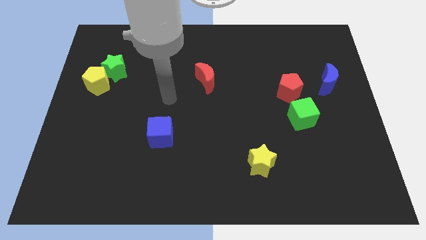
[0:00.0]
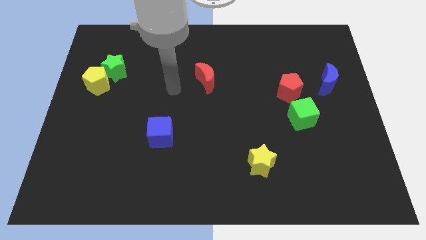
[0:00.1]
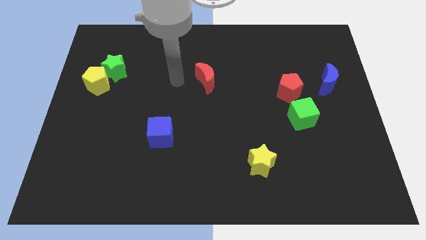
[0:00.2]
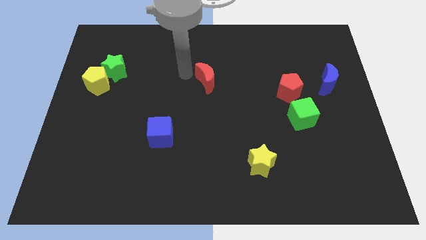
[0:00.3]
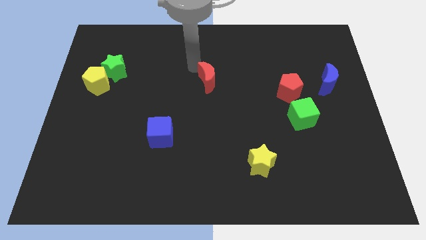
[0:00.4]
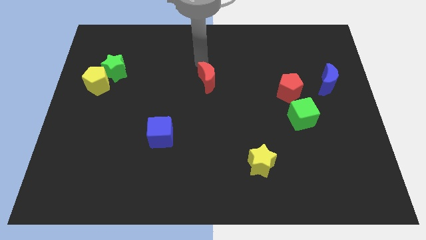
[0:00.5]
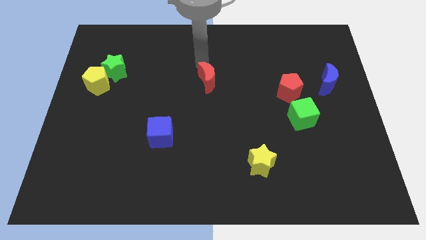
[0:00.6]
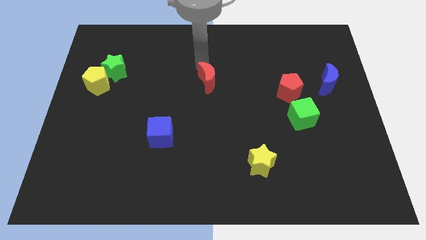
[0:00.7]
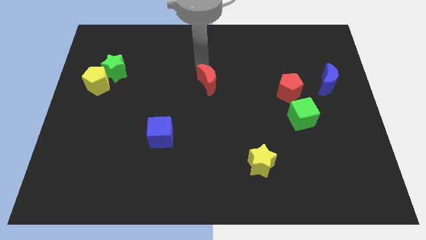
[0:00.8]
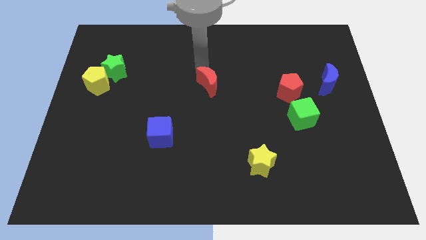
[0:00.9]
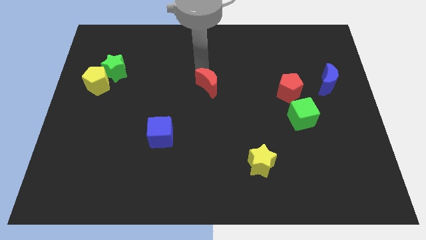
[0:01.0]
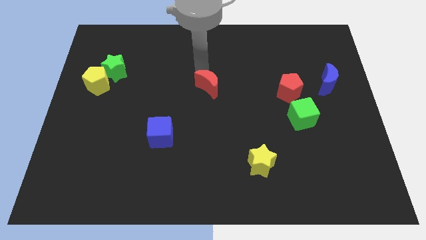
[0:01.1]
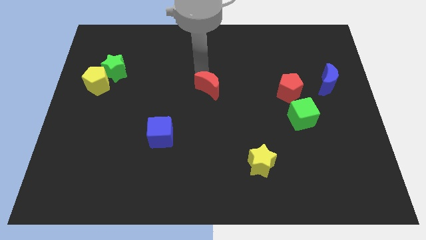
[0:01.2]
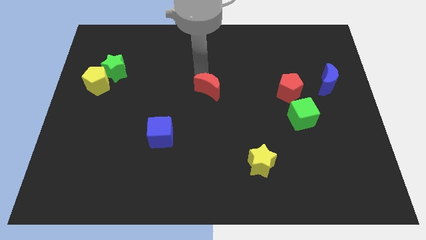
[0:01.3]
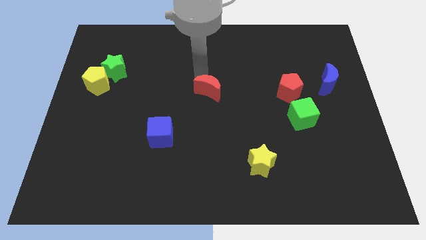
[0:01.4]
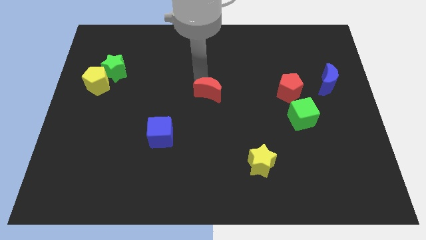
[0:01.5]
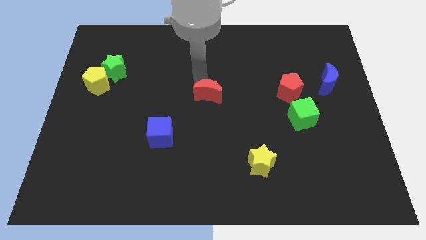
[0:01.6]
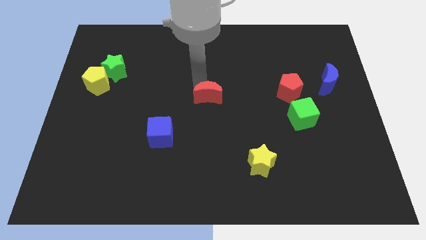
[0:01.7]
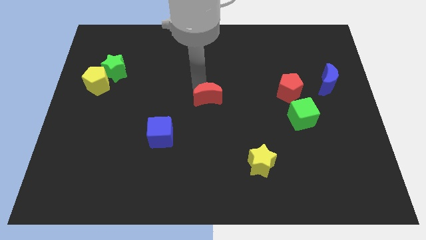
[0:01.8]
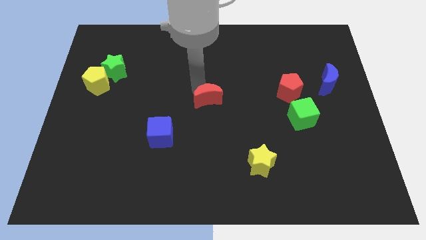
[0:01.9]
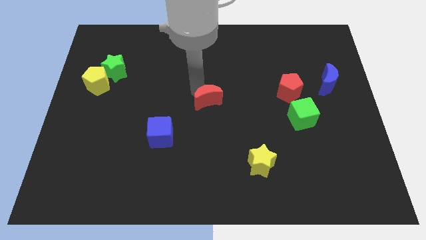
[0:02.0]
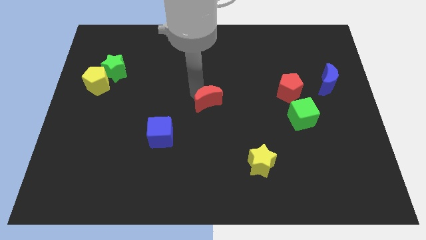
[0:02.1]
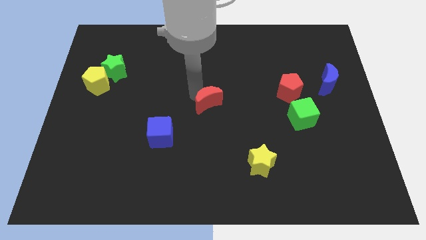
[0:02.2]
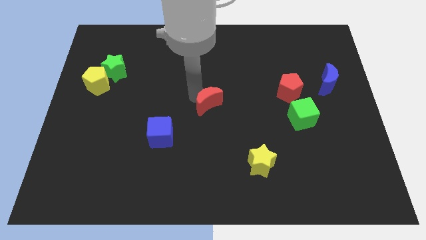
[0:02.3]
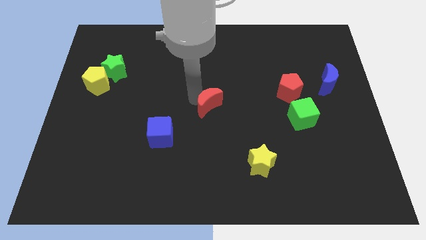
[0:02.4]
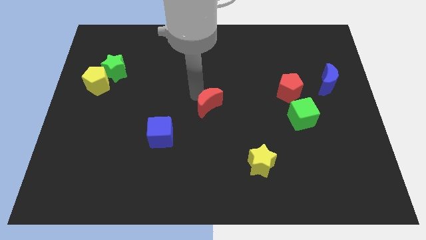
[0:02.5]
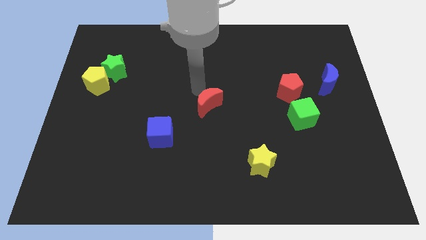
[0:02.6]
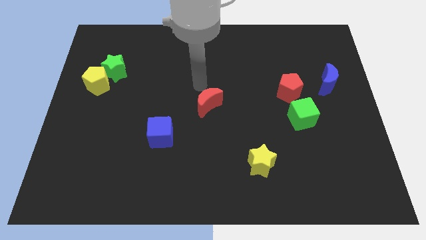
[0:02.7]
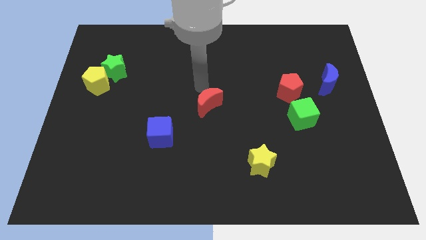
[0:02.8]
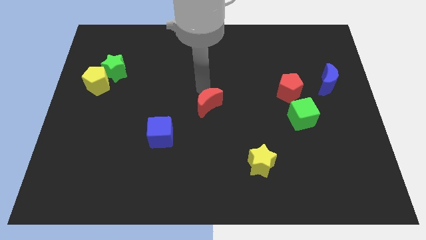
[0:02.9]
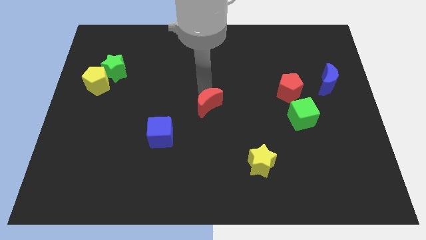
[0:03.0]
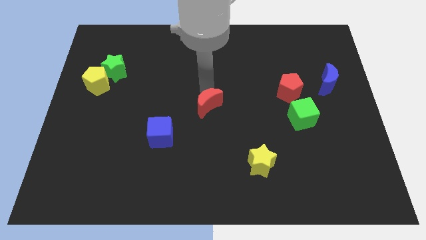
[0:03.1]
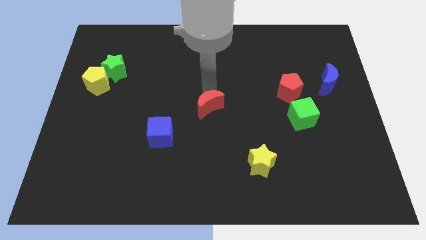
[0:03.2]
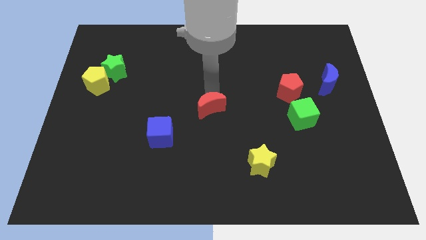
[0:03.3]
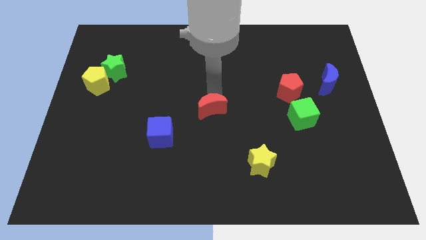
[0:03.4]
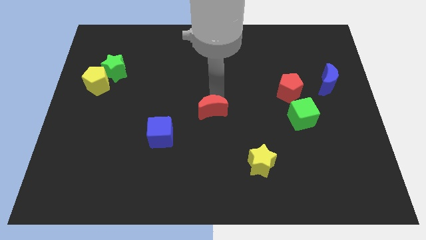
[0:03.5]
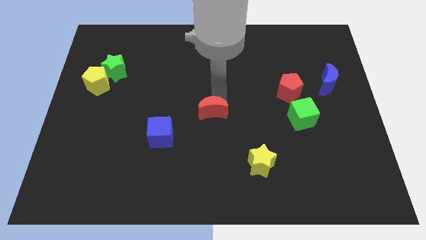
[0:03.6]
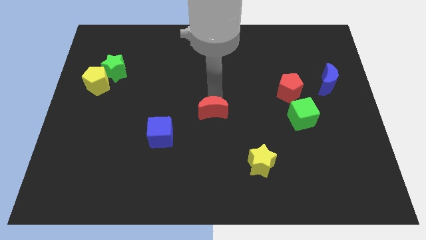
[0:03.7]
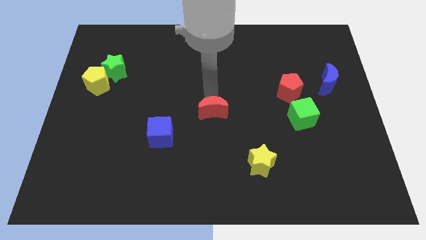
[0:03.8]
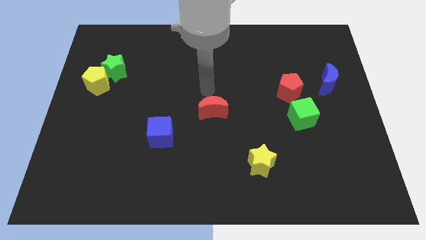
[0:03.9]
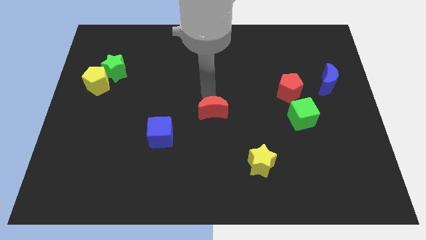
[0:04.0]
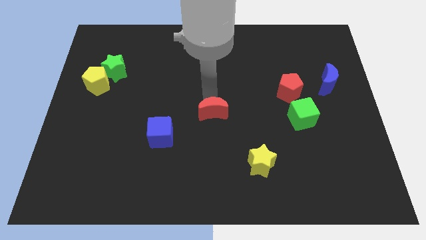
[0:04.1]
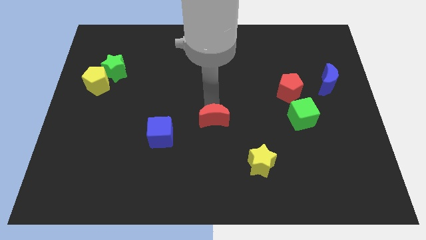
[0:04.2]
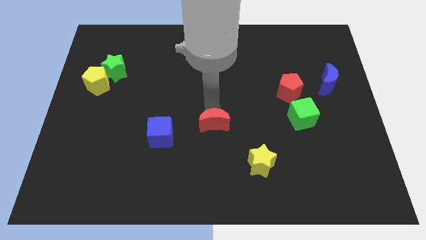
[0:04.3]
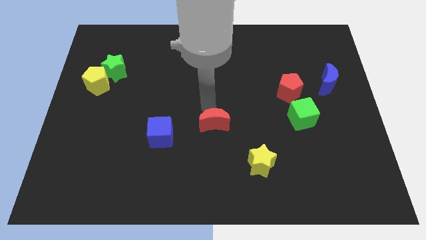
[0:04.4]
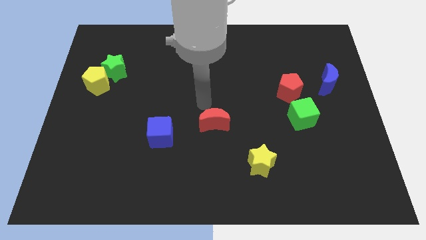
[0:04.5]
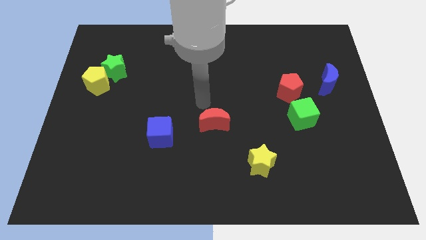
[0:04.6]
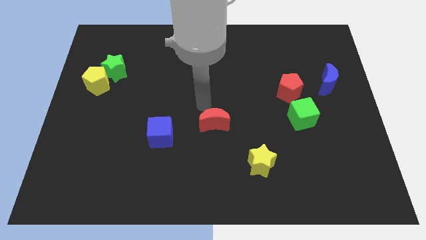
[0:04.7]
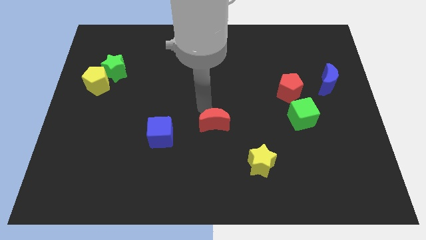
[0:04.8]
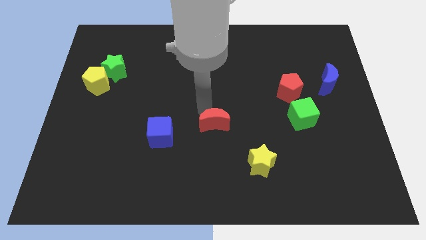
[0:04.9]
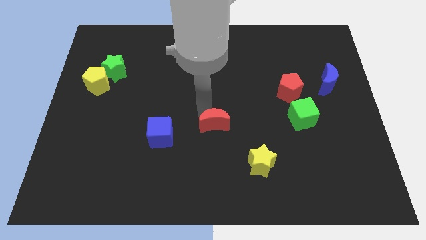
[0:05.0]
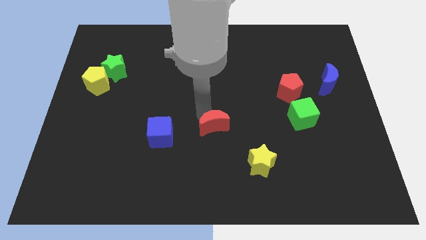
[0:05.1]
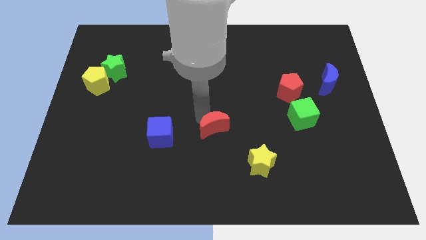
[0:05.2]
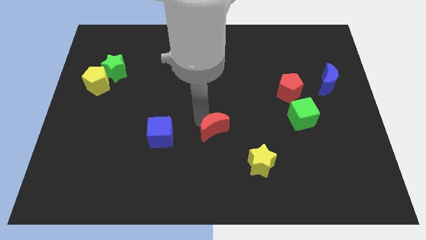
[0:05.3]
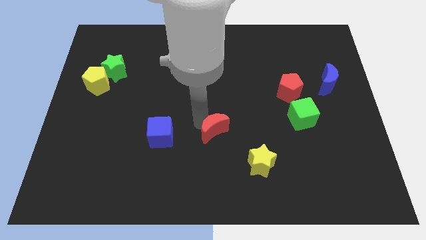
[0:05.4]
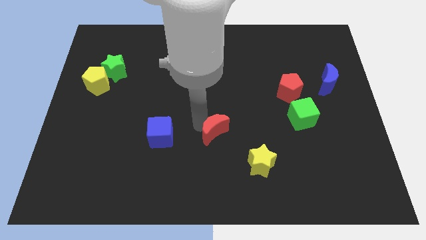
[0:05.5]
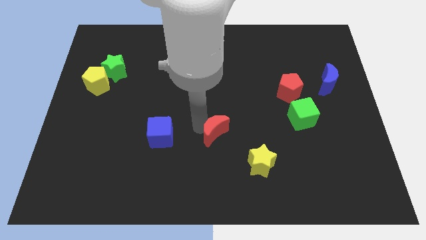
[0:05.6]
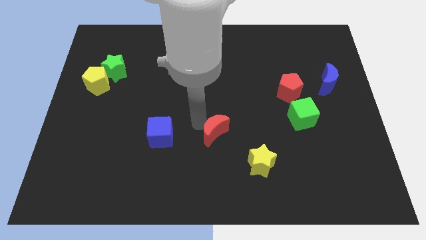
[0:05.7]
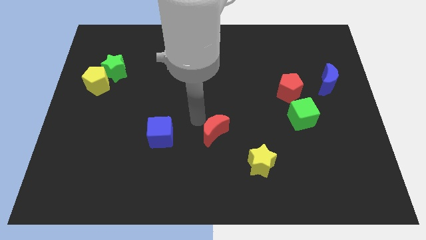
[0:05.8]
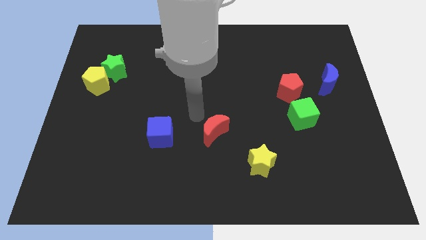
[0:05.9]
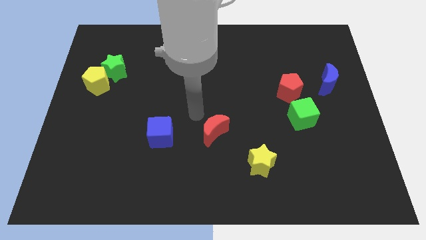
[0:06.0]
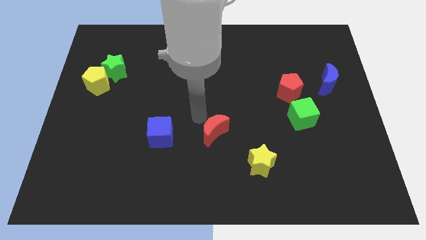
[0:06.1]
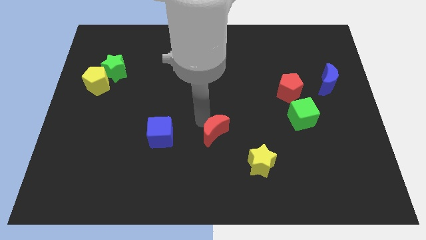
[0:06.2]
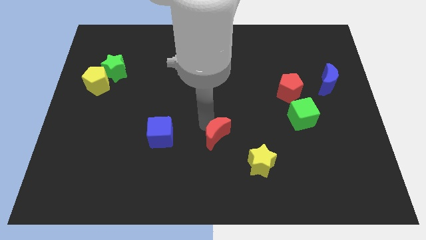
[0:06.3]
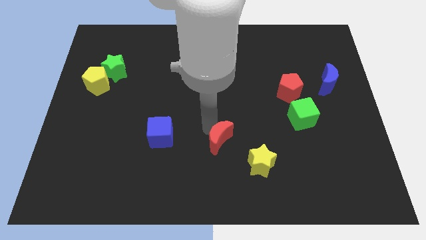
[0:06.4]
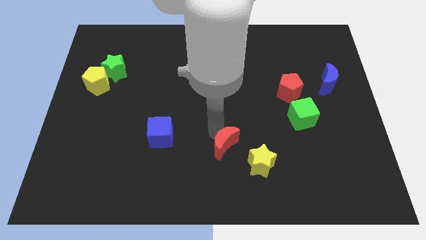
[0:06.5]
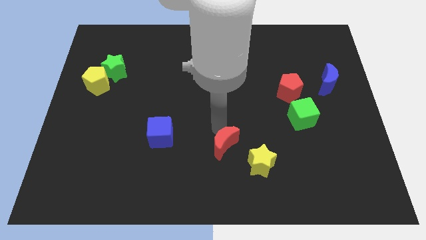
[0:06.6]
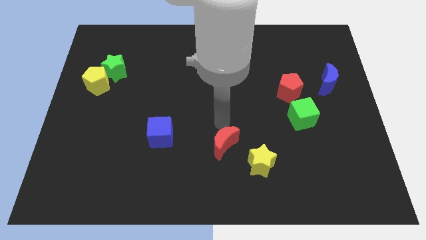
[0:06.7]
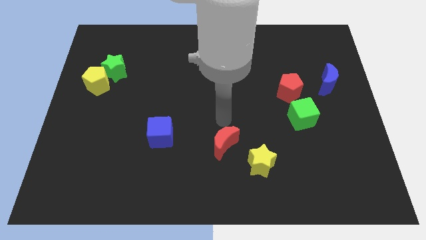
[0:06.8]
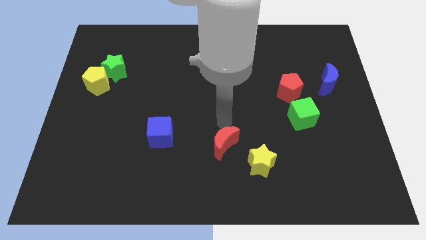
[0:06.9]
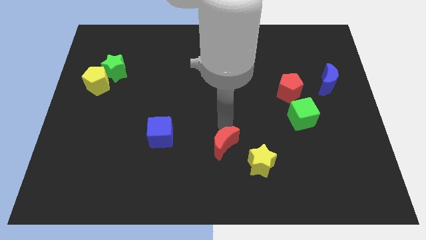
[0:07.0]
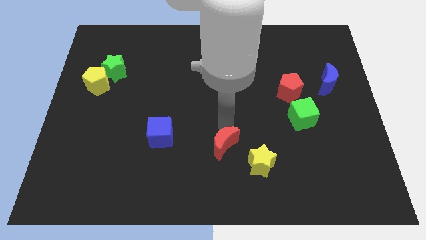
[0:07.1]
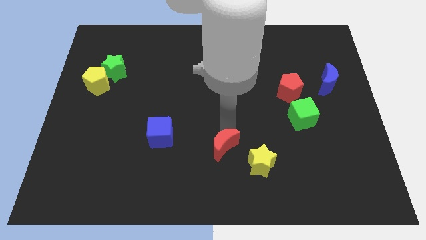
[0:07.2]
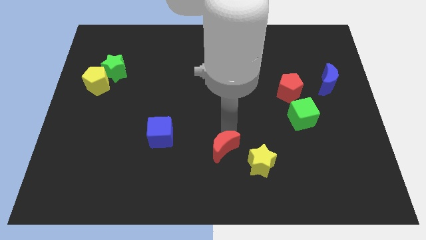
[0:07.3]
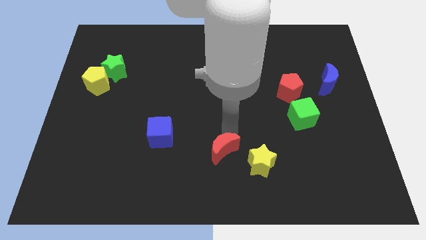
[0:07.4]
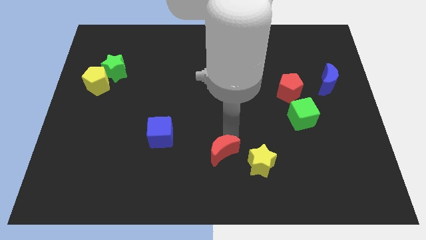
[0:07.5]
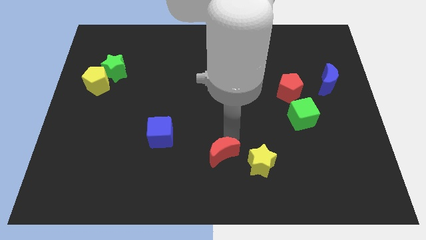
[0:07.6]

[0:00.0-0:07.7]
move the red moon to the bottom
